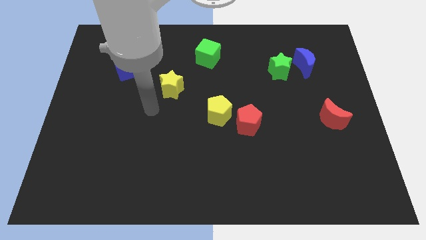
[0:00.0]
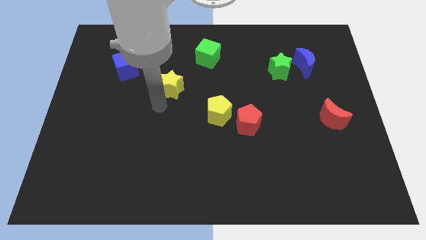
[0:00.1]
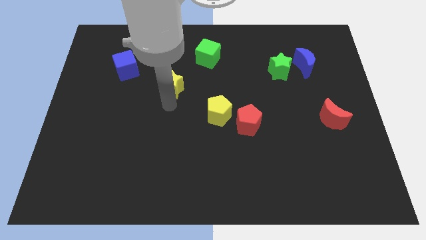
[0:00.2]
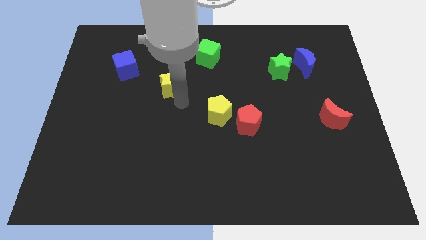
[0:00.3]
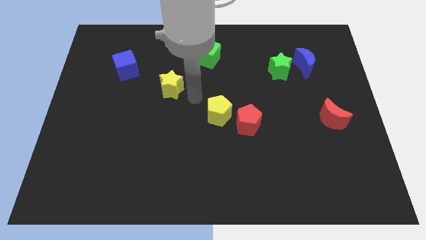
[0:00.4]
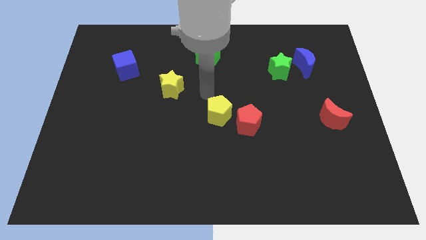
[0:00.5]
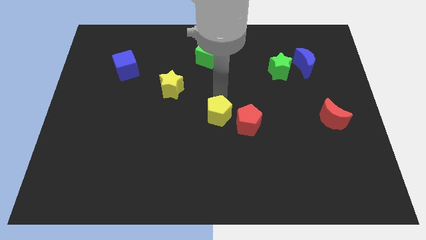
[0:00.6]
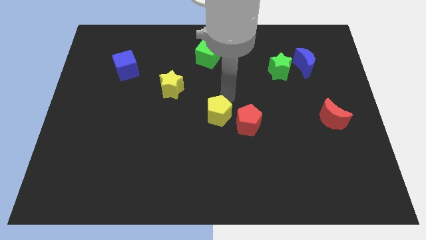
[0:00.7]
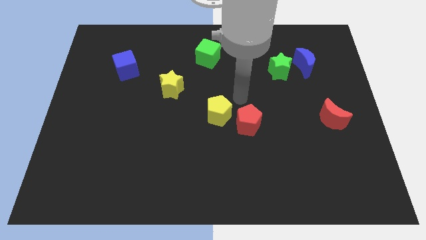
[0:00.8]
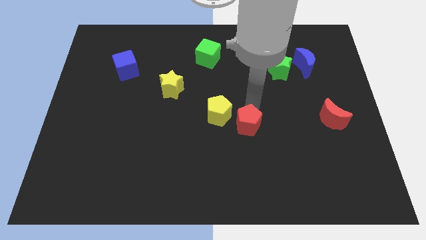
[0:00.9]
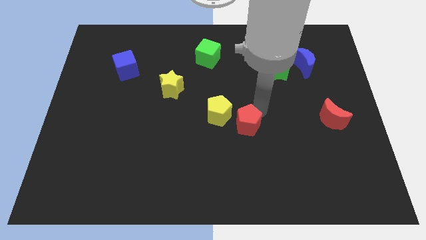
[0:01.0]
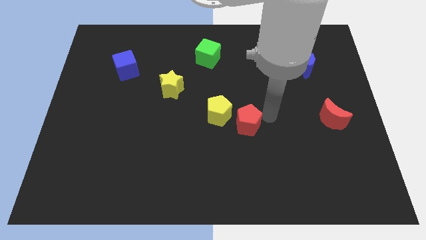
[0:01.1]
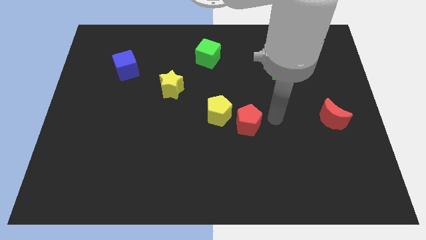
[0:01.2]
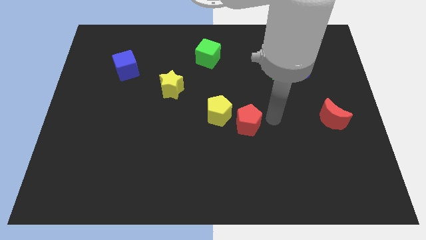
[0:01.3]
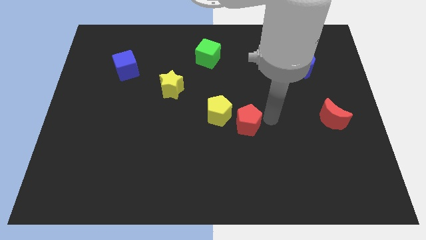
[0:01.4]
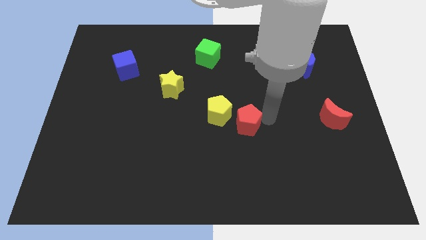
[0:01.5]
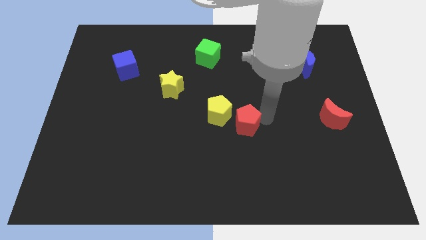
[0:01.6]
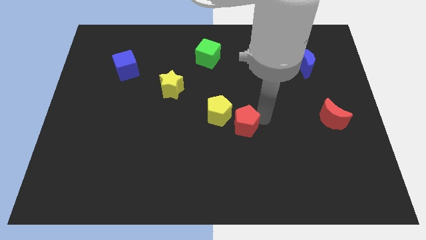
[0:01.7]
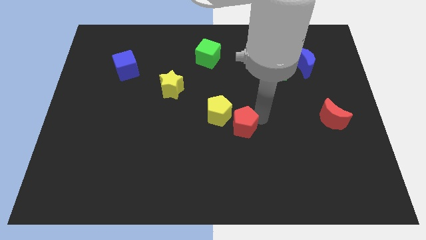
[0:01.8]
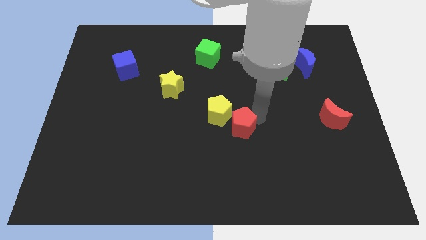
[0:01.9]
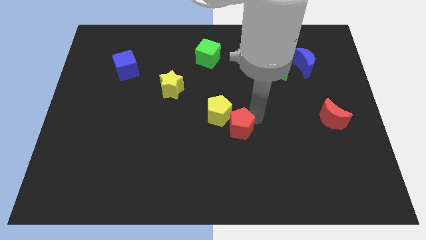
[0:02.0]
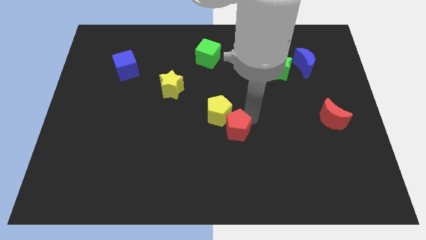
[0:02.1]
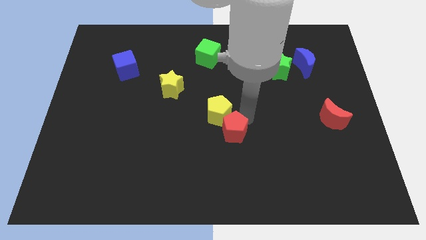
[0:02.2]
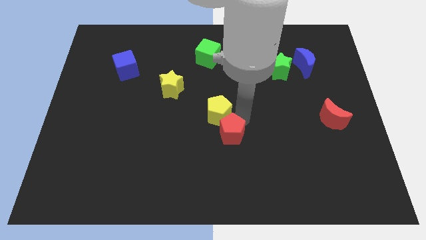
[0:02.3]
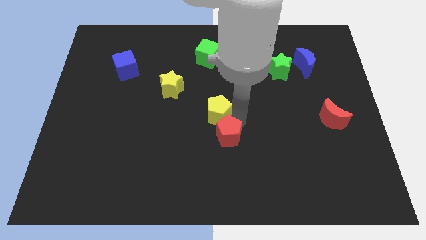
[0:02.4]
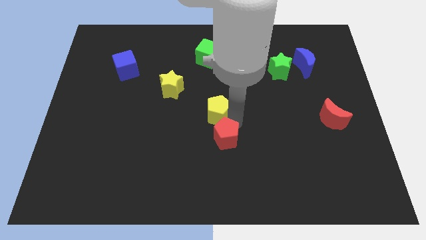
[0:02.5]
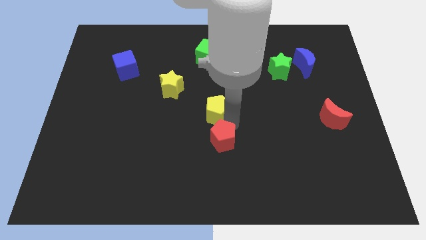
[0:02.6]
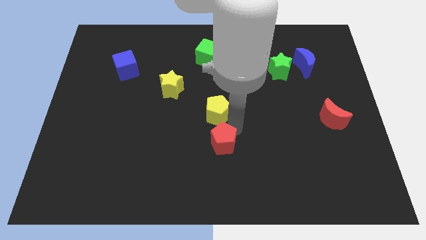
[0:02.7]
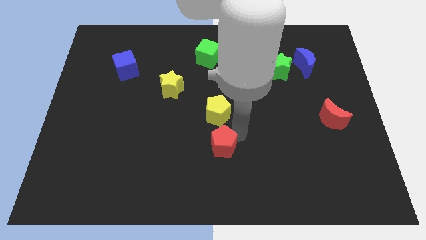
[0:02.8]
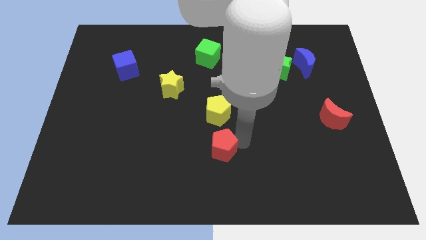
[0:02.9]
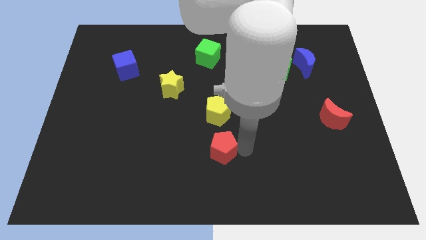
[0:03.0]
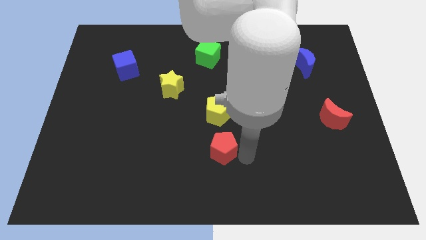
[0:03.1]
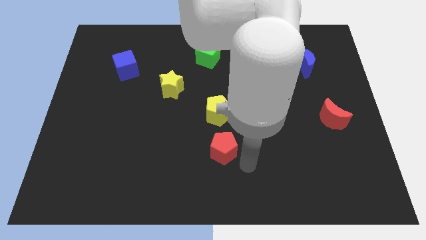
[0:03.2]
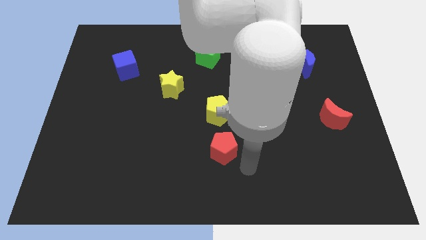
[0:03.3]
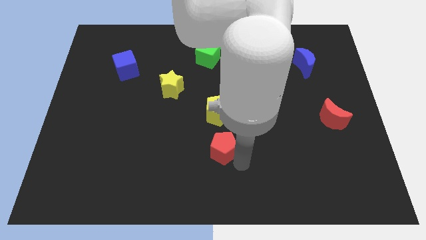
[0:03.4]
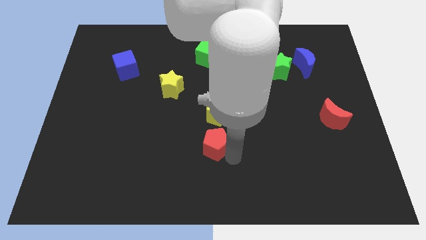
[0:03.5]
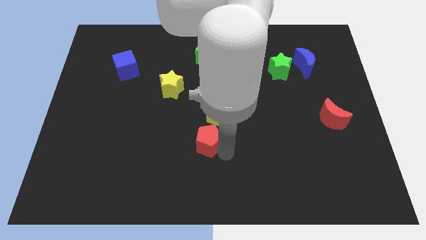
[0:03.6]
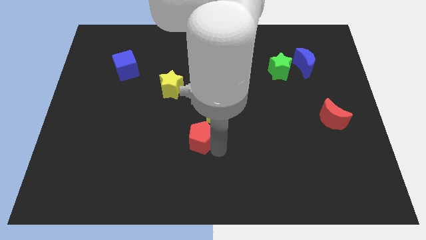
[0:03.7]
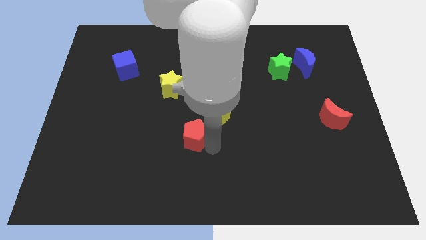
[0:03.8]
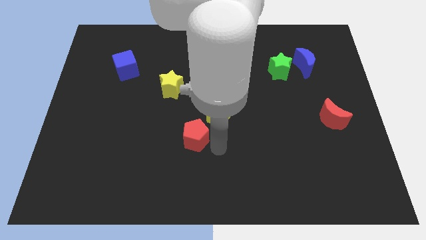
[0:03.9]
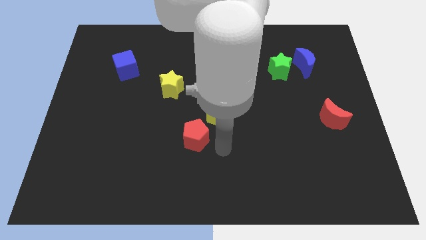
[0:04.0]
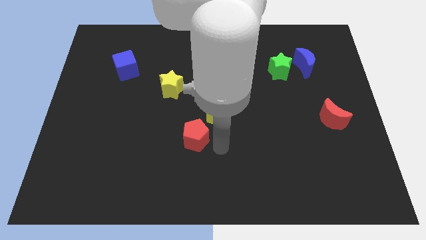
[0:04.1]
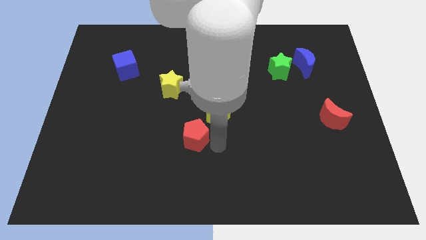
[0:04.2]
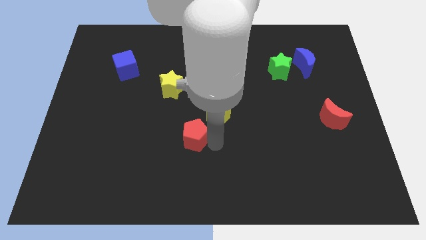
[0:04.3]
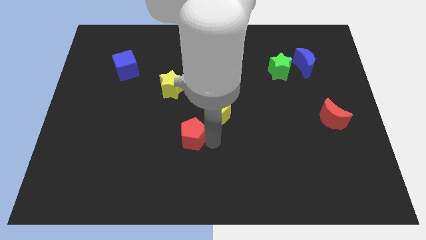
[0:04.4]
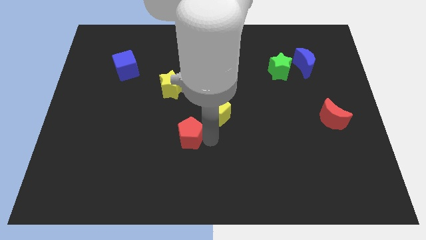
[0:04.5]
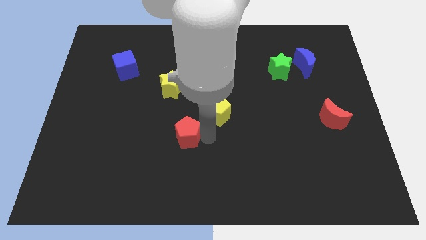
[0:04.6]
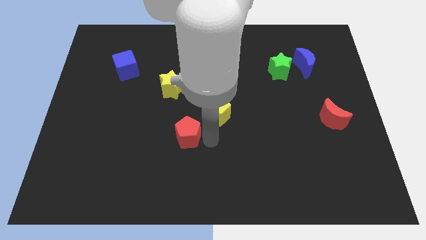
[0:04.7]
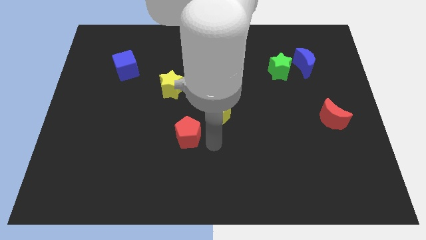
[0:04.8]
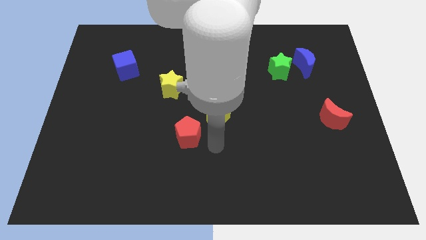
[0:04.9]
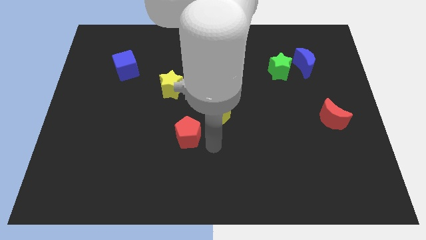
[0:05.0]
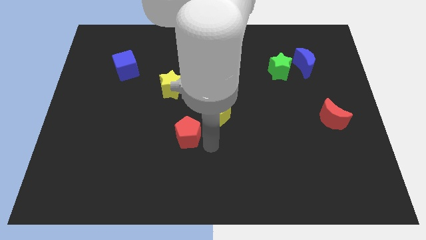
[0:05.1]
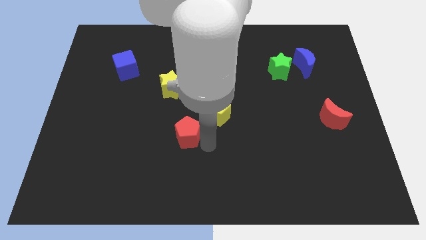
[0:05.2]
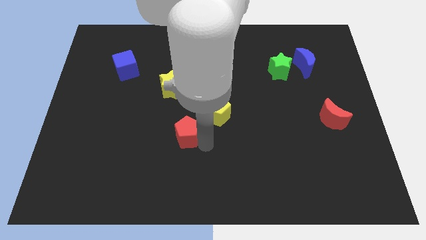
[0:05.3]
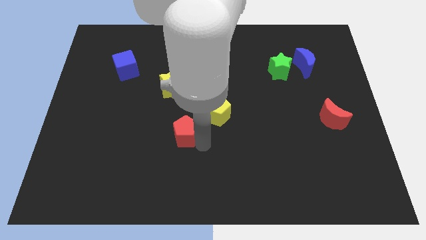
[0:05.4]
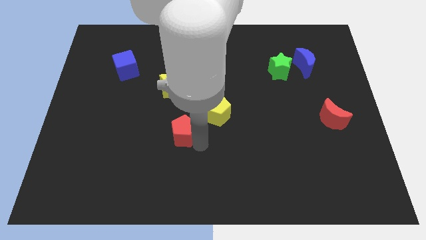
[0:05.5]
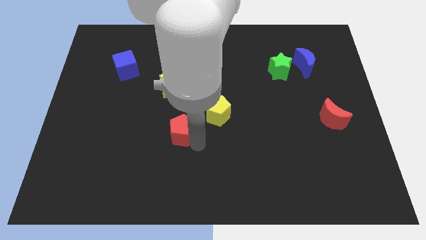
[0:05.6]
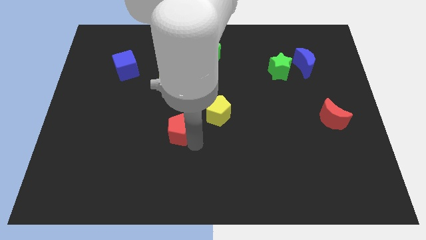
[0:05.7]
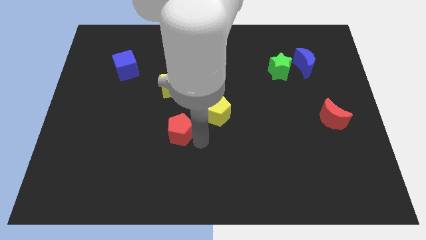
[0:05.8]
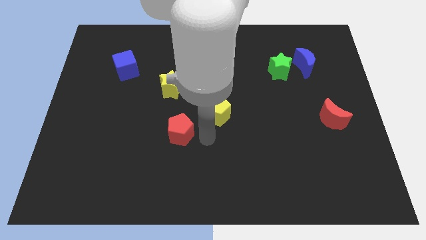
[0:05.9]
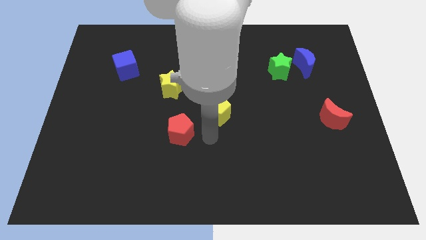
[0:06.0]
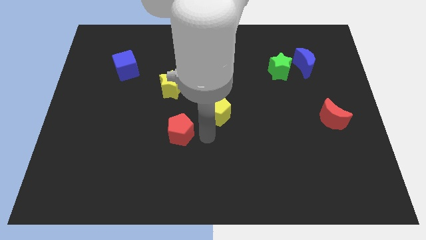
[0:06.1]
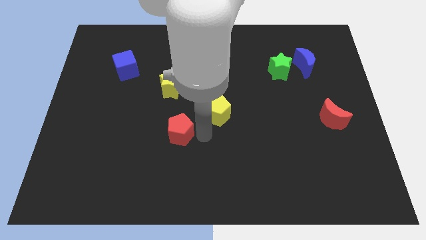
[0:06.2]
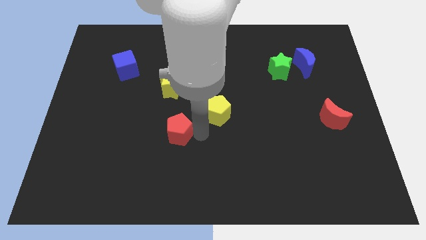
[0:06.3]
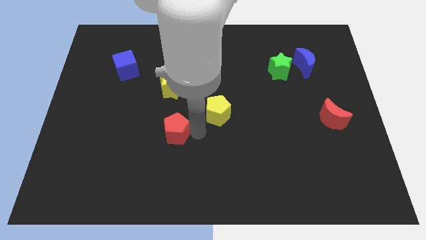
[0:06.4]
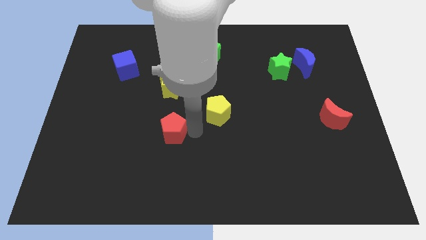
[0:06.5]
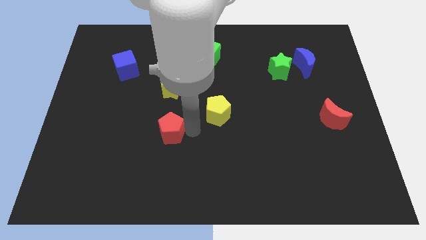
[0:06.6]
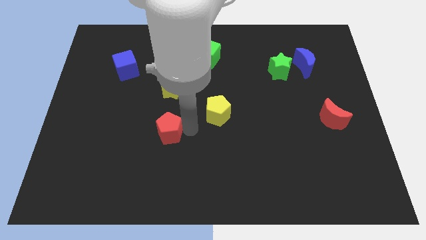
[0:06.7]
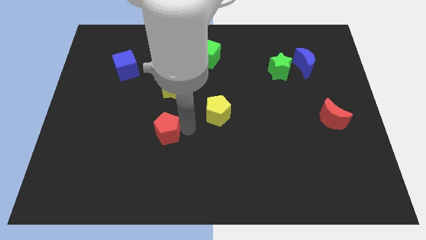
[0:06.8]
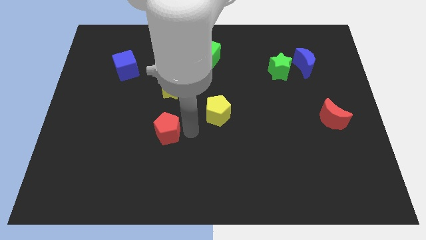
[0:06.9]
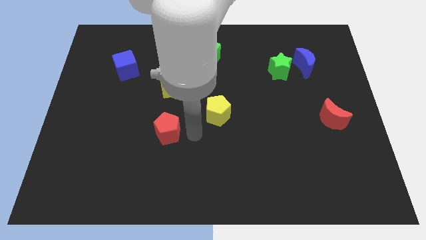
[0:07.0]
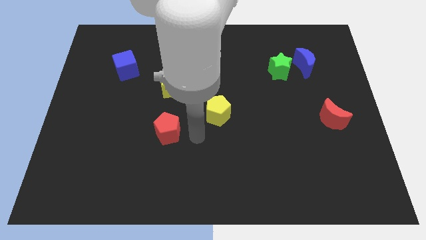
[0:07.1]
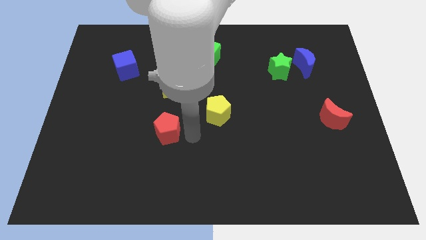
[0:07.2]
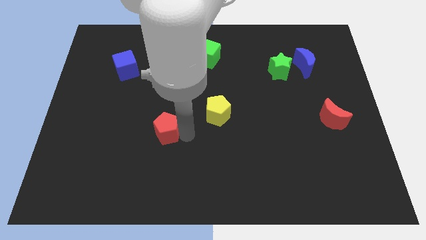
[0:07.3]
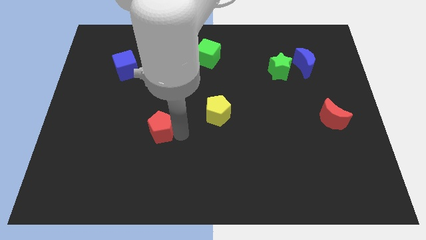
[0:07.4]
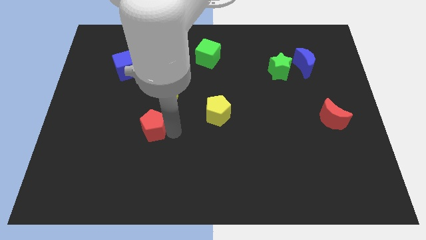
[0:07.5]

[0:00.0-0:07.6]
push the red pentagon left

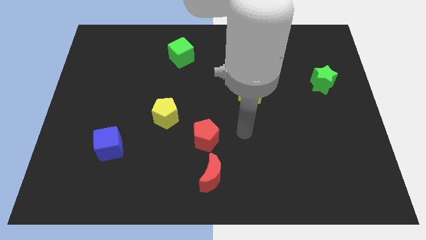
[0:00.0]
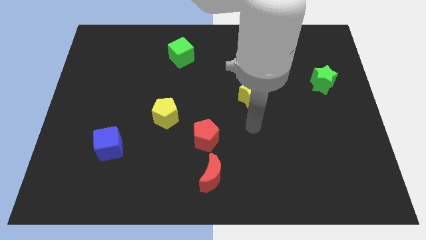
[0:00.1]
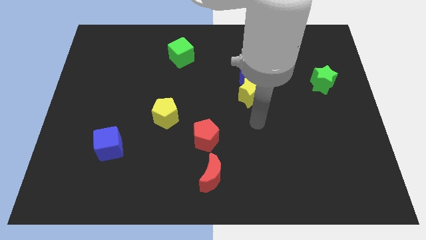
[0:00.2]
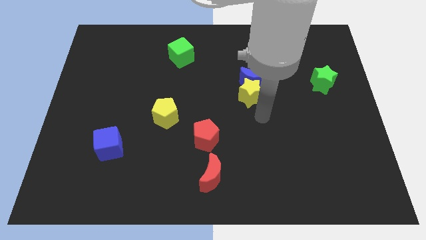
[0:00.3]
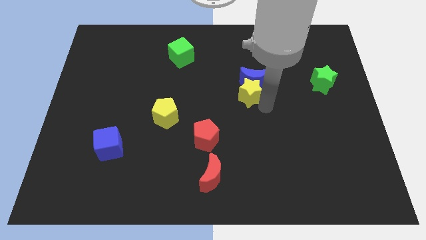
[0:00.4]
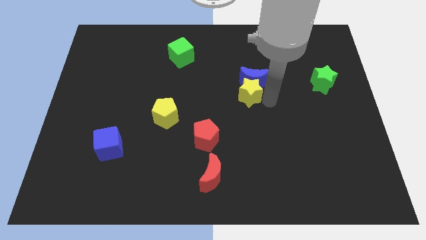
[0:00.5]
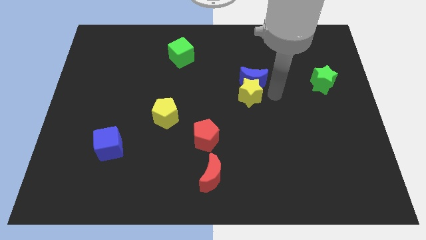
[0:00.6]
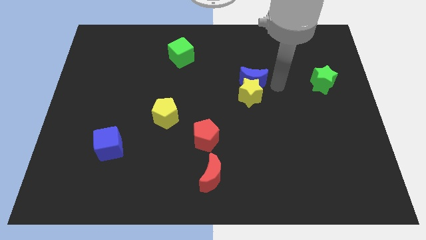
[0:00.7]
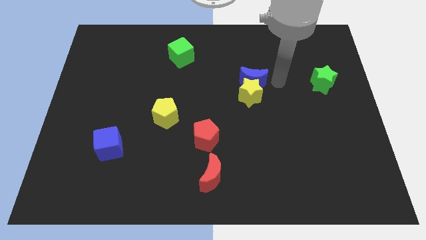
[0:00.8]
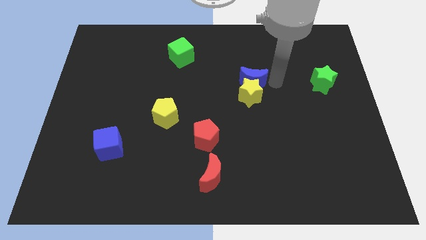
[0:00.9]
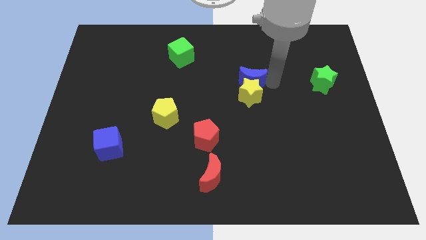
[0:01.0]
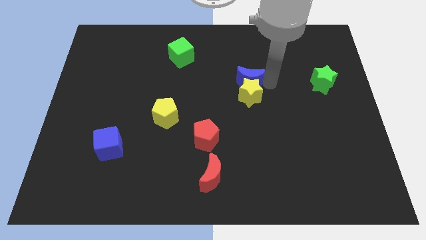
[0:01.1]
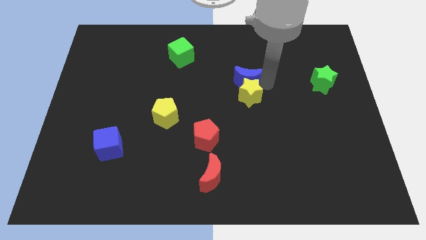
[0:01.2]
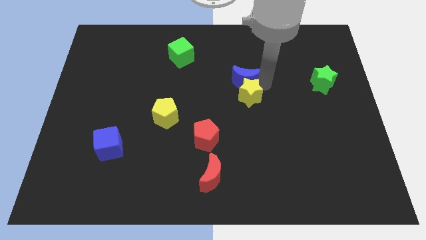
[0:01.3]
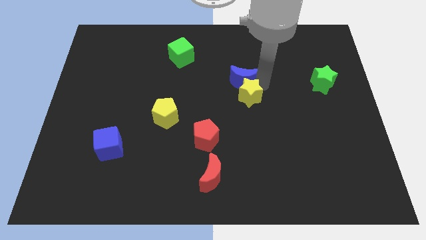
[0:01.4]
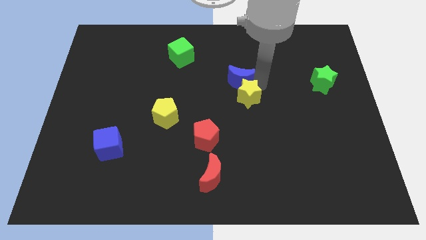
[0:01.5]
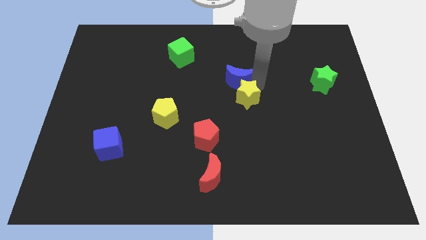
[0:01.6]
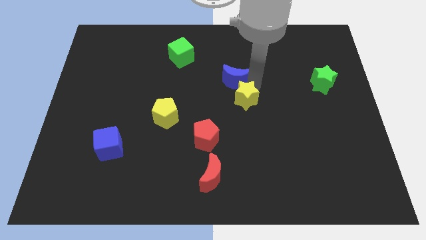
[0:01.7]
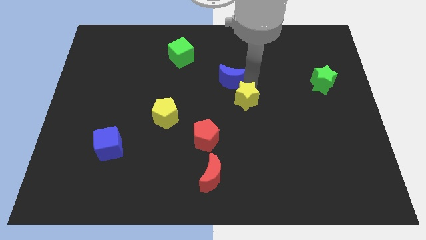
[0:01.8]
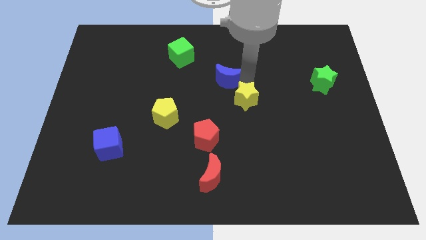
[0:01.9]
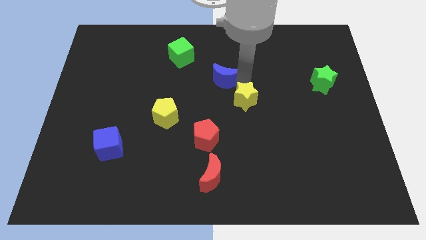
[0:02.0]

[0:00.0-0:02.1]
slightly move the blue moon left
